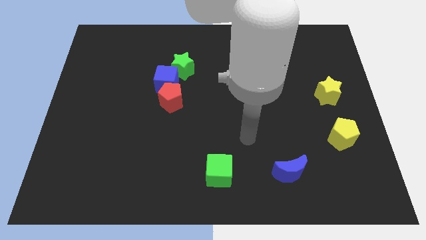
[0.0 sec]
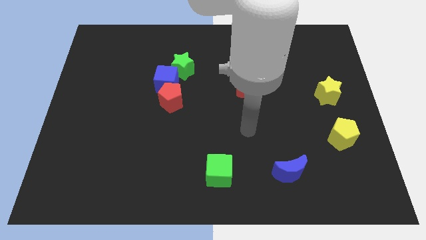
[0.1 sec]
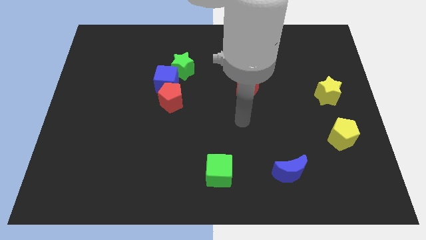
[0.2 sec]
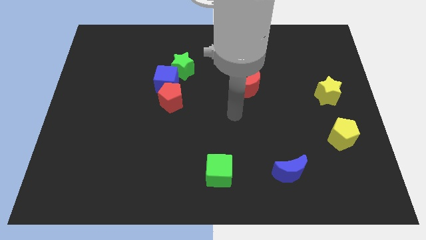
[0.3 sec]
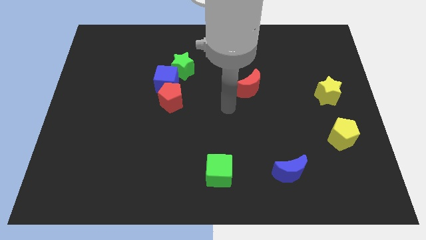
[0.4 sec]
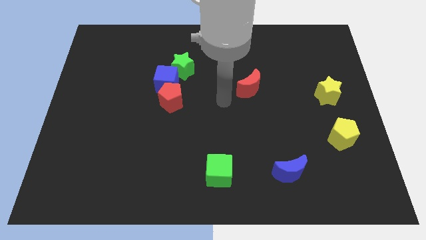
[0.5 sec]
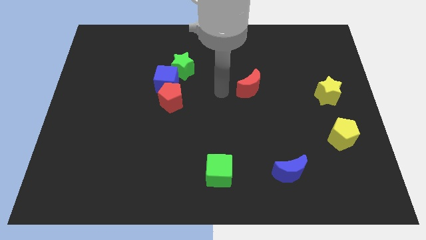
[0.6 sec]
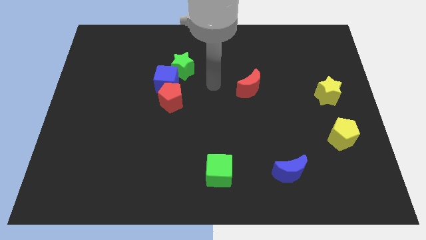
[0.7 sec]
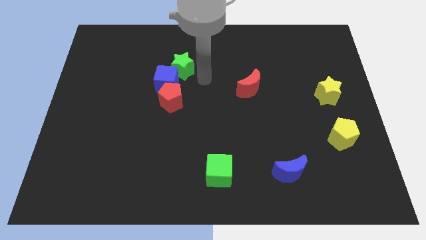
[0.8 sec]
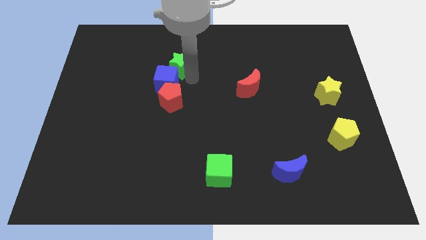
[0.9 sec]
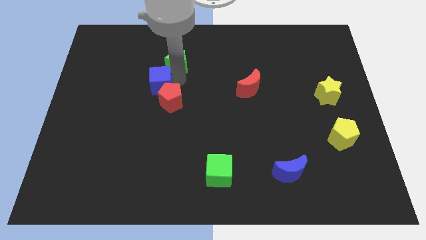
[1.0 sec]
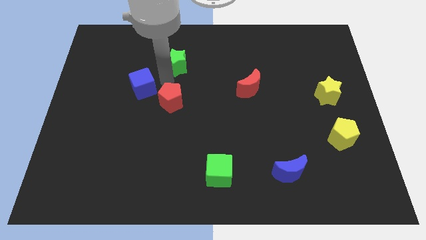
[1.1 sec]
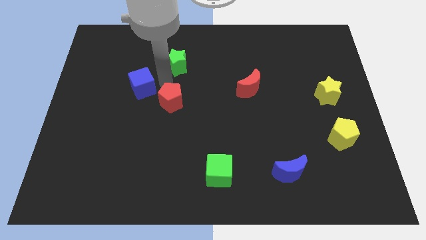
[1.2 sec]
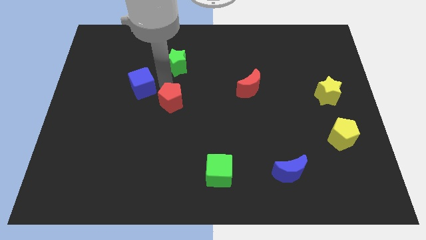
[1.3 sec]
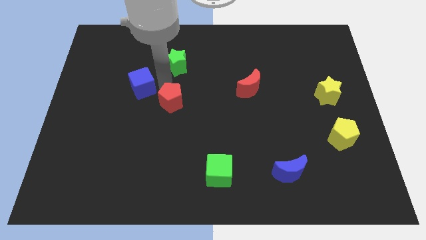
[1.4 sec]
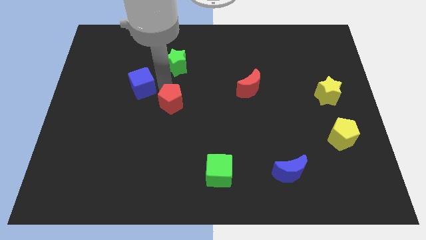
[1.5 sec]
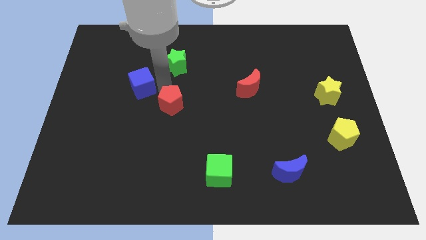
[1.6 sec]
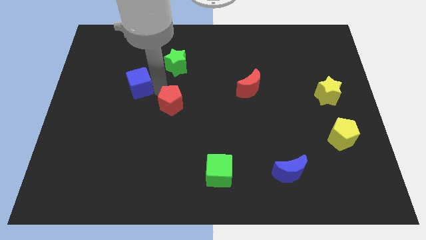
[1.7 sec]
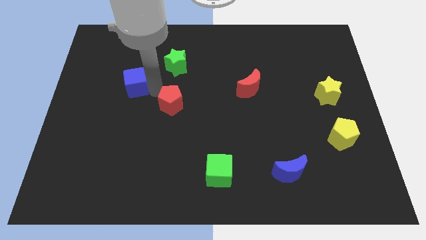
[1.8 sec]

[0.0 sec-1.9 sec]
separate the red pentagon from the blue cube

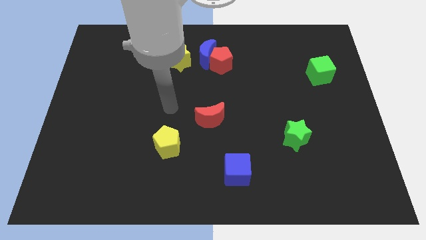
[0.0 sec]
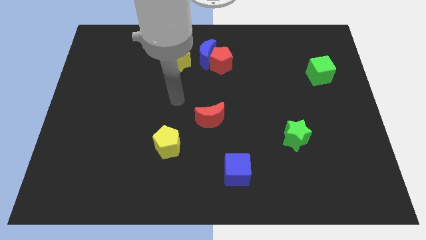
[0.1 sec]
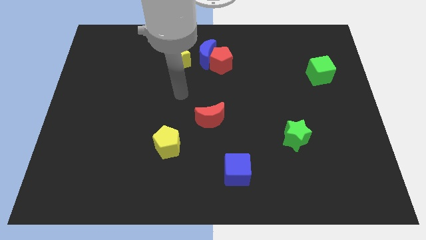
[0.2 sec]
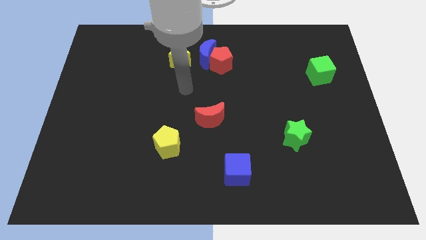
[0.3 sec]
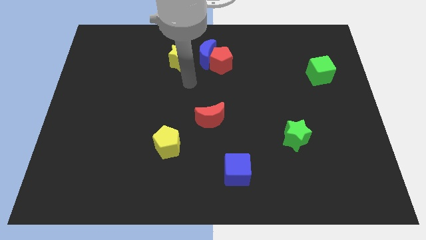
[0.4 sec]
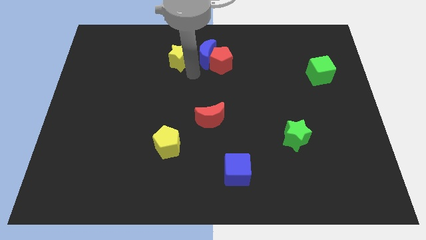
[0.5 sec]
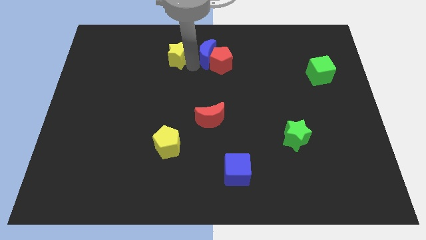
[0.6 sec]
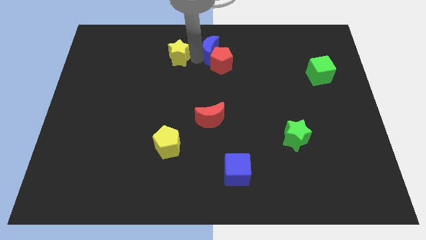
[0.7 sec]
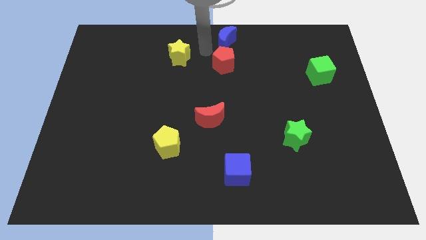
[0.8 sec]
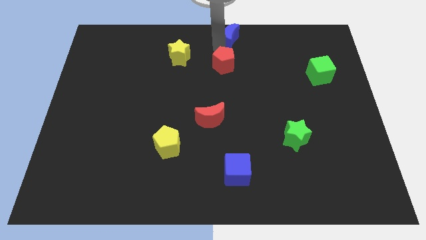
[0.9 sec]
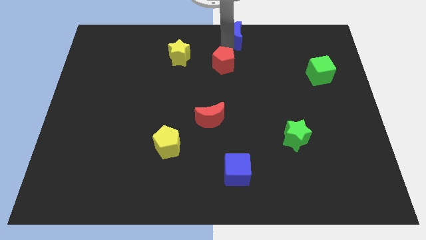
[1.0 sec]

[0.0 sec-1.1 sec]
move the red pentagon away from the blue moon

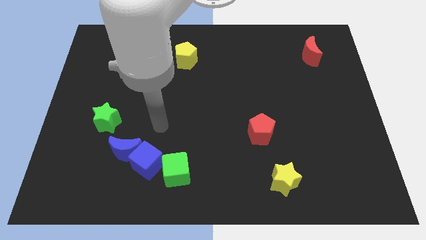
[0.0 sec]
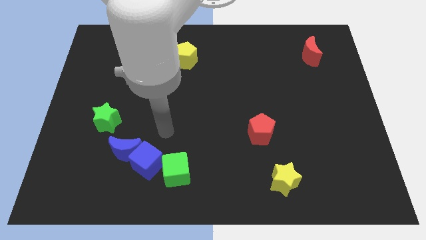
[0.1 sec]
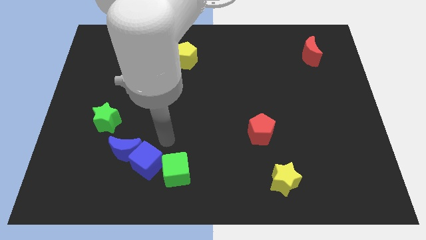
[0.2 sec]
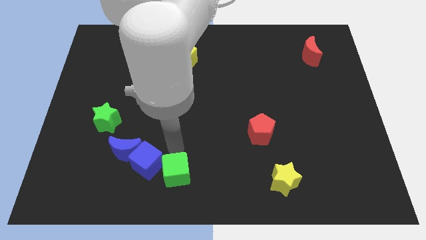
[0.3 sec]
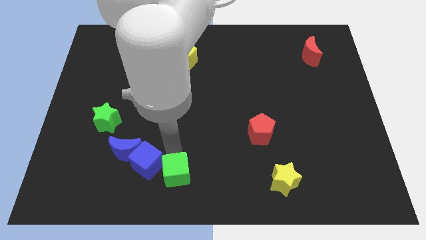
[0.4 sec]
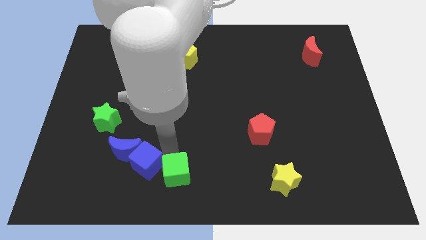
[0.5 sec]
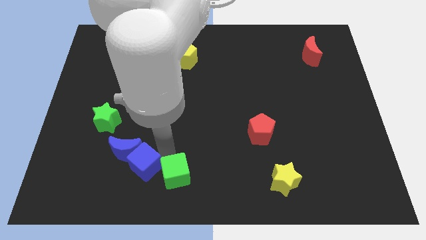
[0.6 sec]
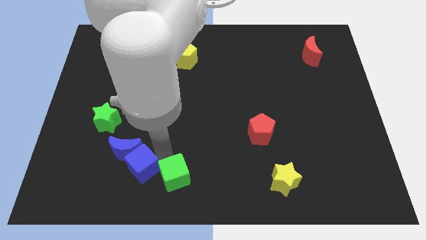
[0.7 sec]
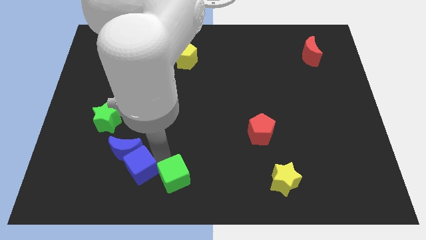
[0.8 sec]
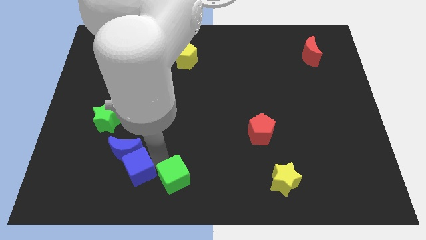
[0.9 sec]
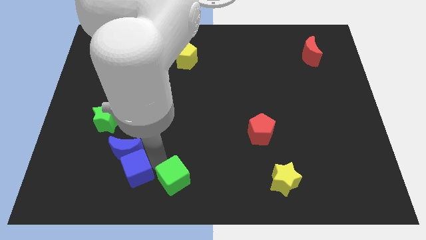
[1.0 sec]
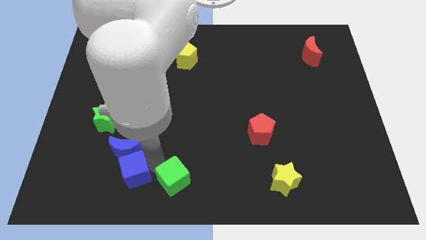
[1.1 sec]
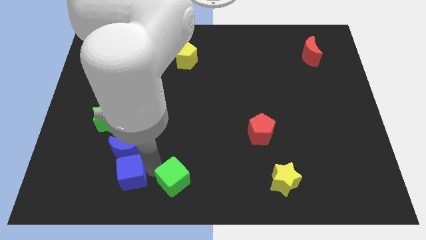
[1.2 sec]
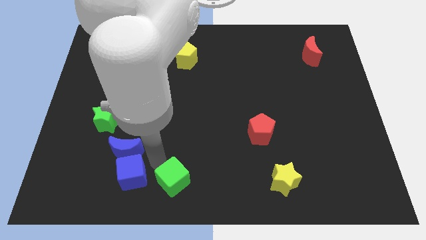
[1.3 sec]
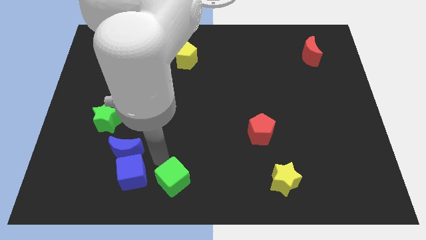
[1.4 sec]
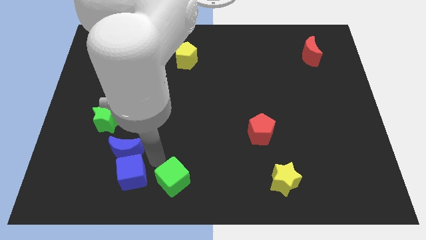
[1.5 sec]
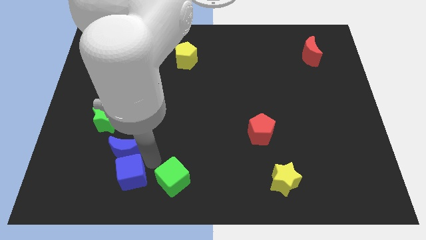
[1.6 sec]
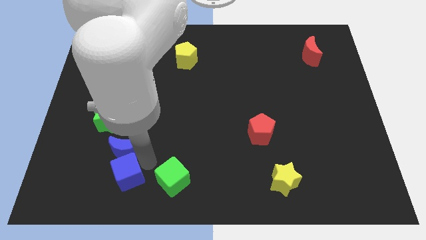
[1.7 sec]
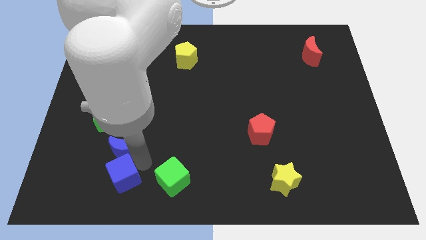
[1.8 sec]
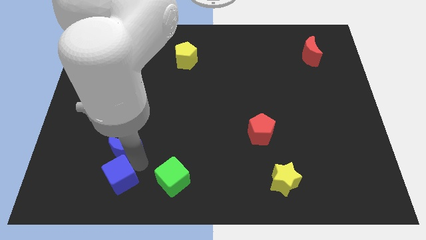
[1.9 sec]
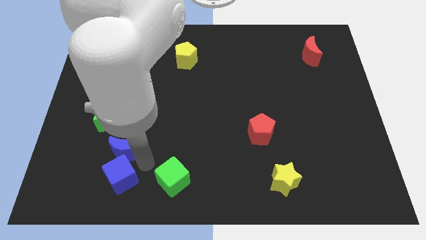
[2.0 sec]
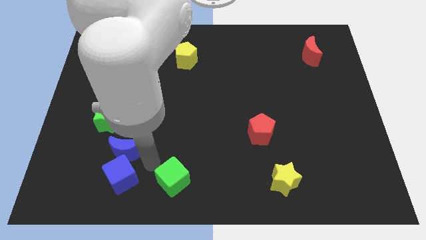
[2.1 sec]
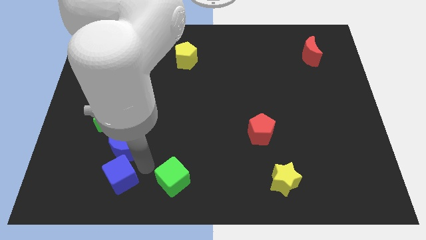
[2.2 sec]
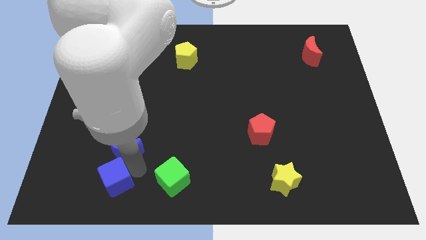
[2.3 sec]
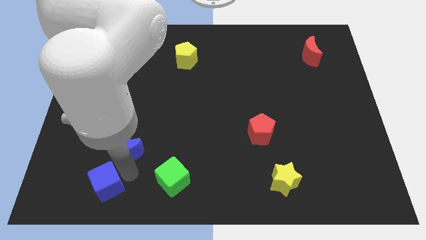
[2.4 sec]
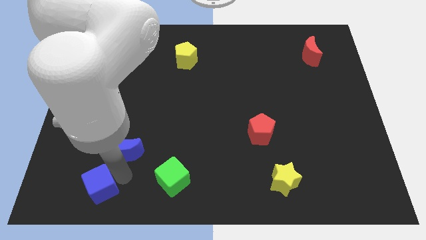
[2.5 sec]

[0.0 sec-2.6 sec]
separate the blue cube from the blue moon and green cube

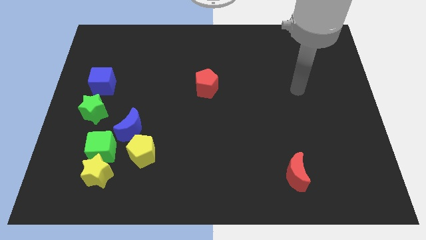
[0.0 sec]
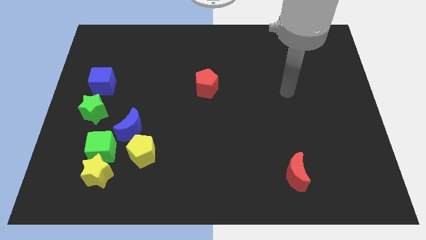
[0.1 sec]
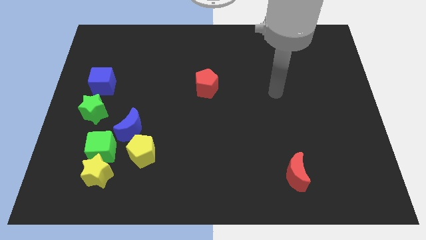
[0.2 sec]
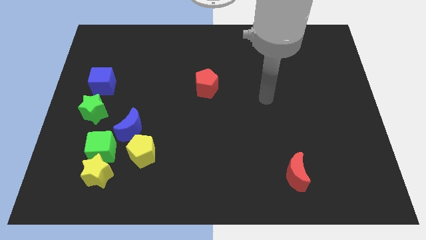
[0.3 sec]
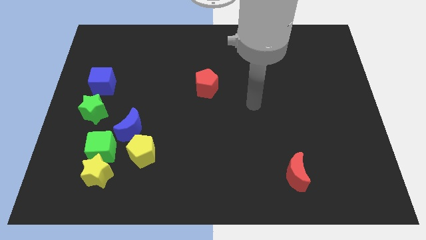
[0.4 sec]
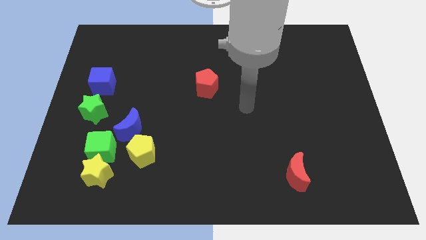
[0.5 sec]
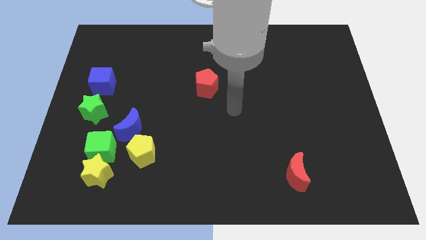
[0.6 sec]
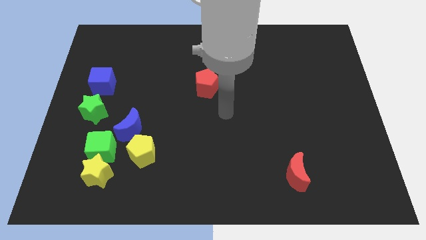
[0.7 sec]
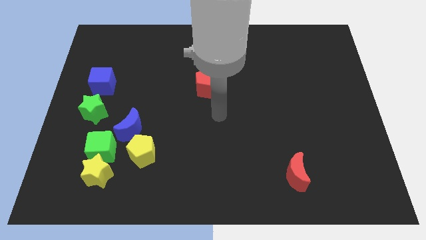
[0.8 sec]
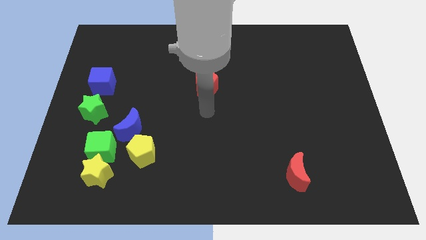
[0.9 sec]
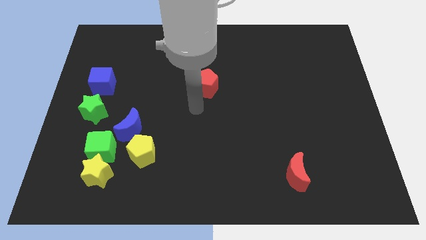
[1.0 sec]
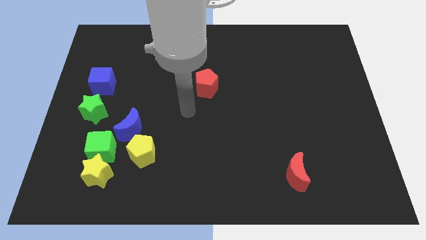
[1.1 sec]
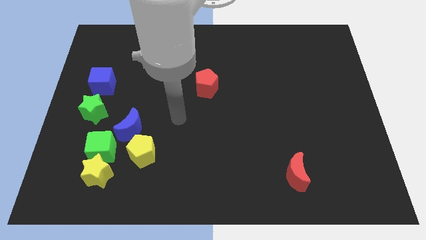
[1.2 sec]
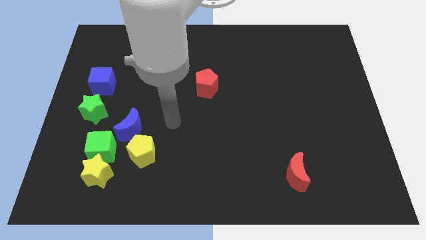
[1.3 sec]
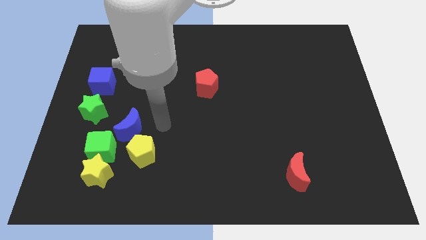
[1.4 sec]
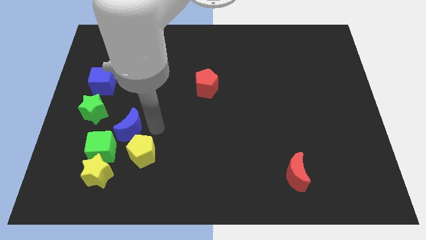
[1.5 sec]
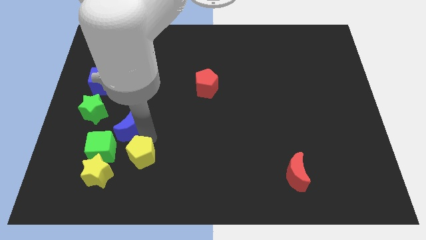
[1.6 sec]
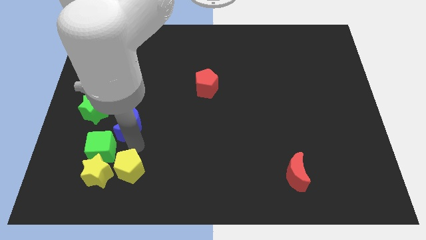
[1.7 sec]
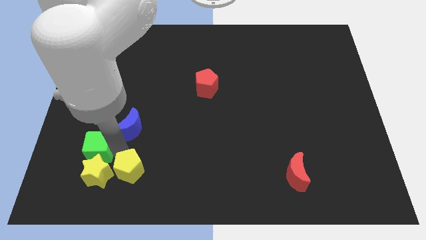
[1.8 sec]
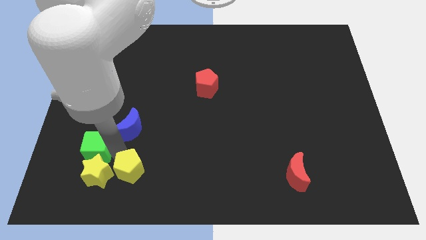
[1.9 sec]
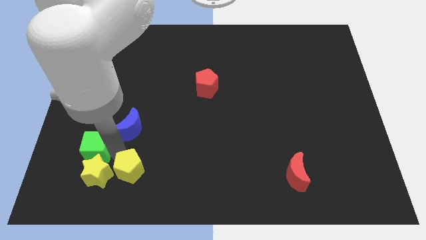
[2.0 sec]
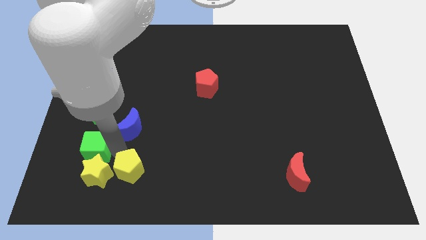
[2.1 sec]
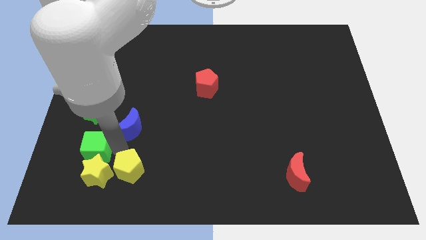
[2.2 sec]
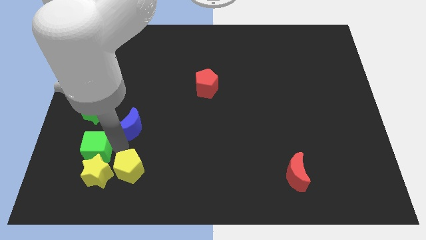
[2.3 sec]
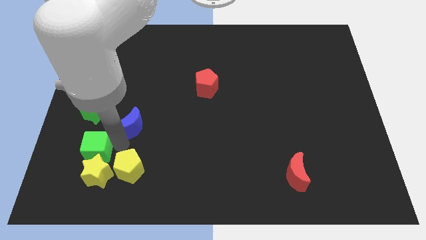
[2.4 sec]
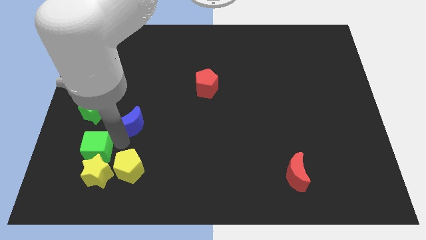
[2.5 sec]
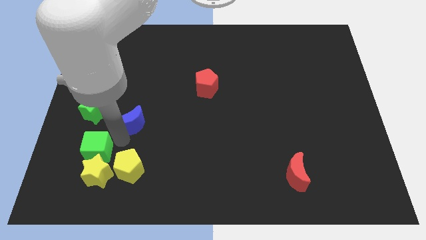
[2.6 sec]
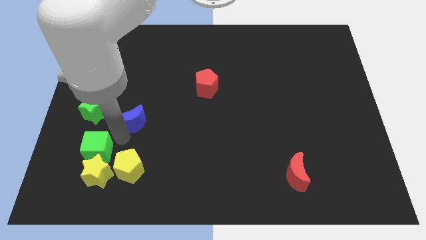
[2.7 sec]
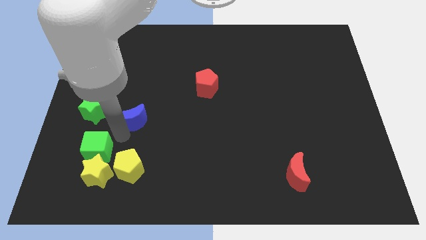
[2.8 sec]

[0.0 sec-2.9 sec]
pull the blue moon apart from the yellow pentagon and green cube

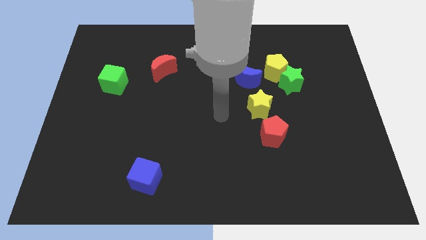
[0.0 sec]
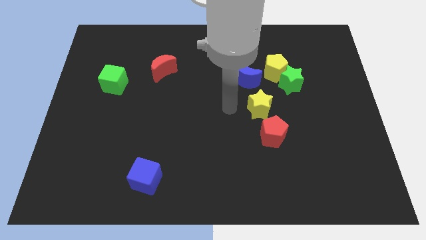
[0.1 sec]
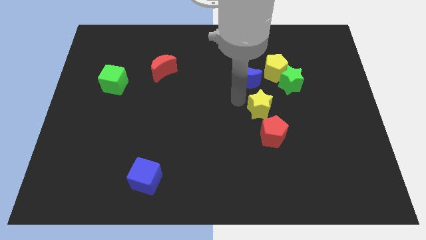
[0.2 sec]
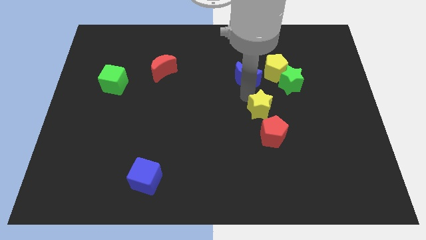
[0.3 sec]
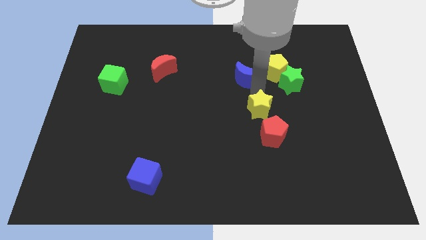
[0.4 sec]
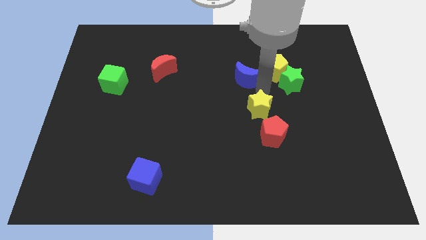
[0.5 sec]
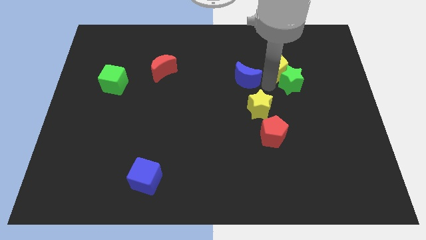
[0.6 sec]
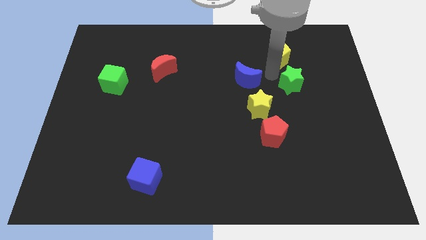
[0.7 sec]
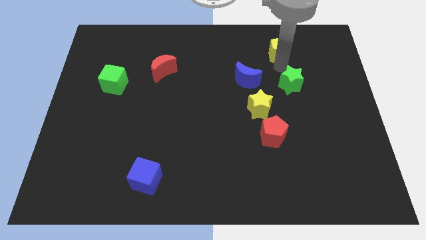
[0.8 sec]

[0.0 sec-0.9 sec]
separate the green star from the yellow pentagon
